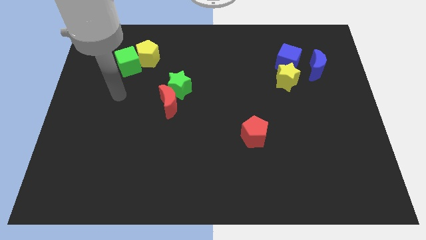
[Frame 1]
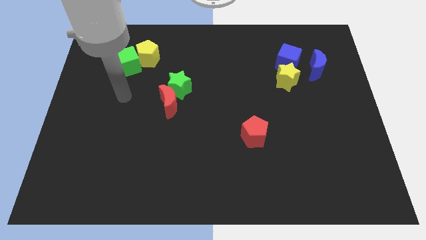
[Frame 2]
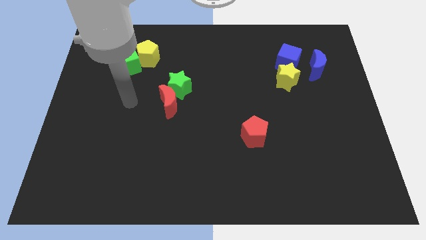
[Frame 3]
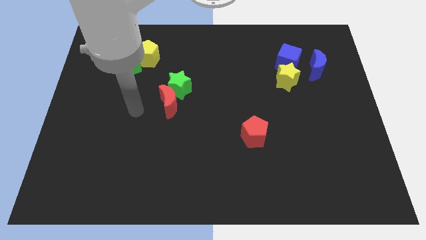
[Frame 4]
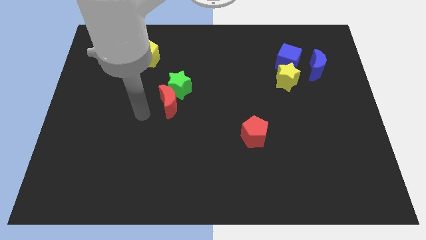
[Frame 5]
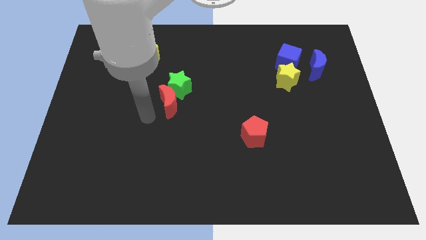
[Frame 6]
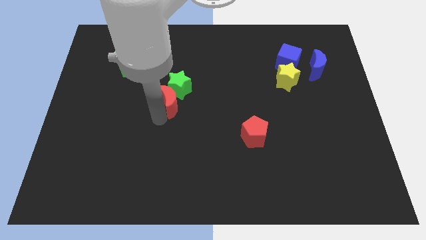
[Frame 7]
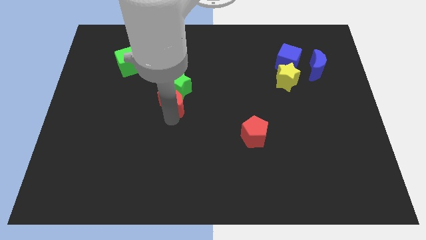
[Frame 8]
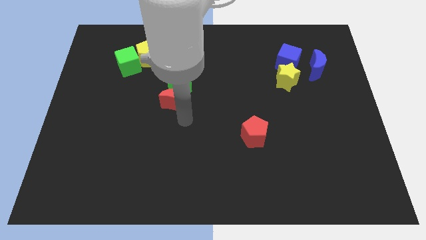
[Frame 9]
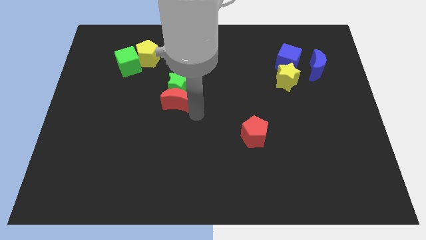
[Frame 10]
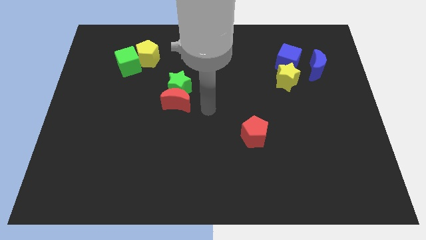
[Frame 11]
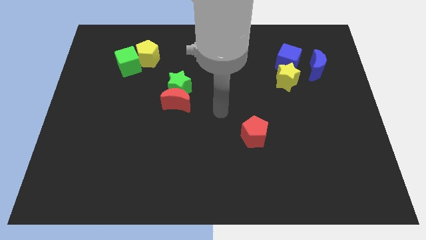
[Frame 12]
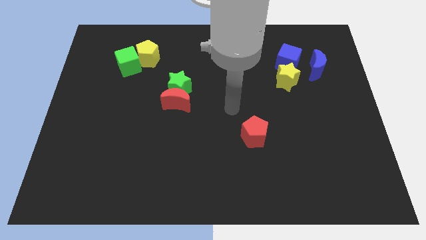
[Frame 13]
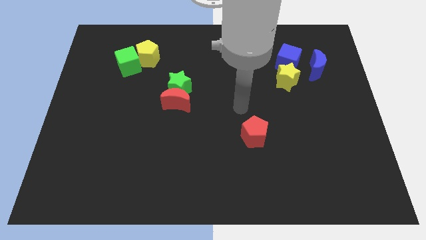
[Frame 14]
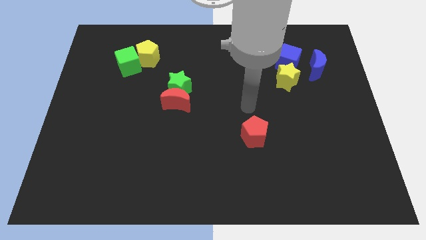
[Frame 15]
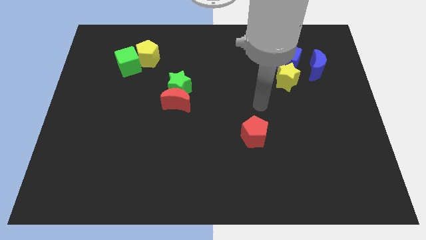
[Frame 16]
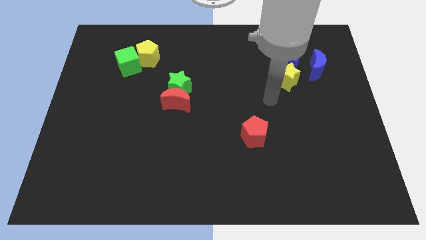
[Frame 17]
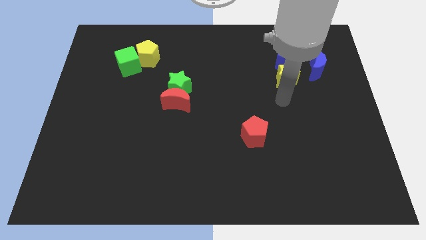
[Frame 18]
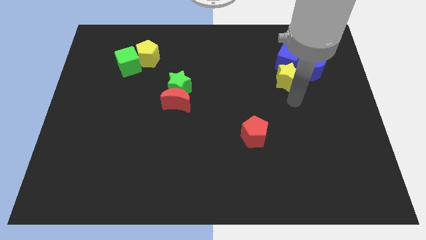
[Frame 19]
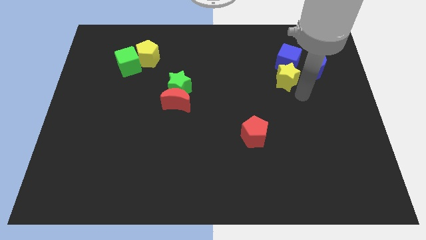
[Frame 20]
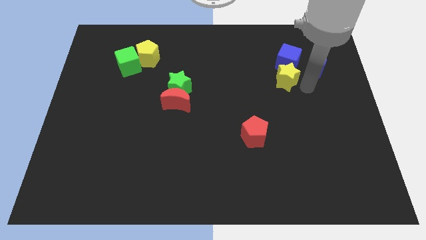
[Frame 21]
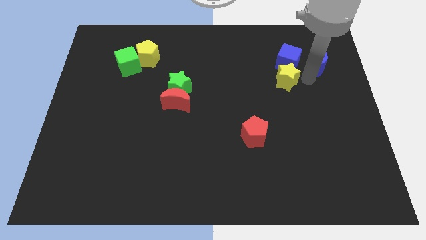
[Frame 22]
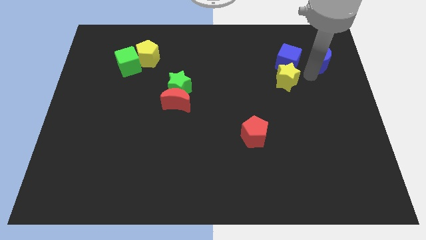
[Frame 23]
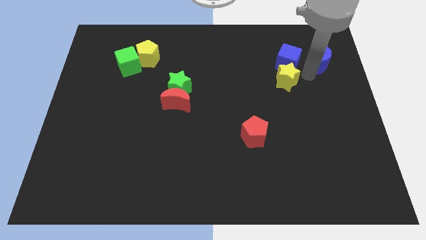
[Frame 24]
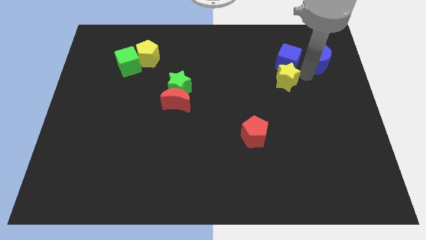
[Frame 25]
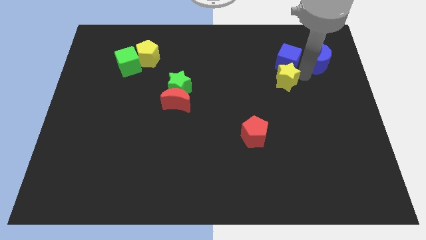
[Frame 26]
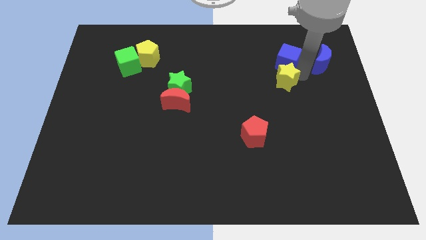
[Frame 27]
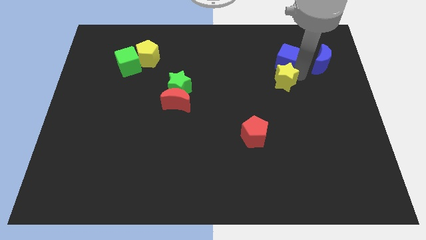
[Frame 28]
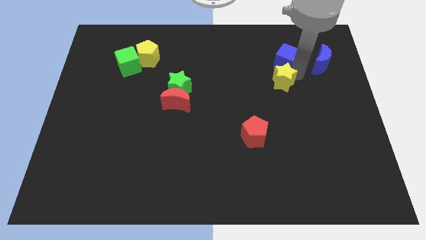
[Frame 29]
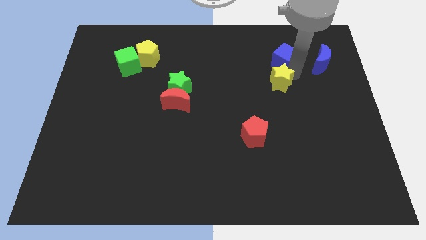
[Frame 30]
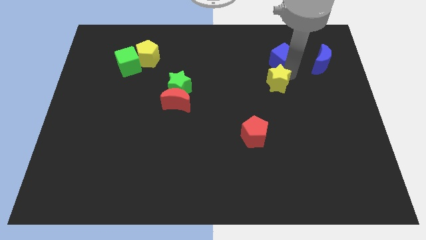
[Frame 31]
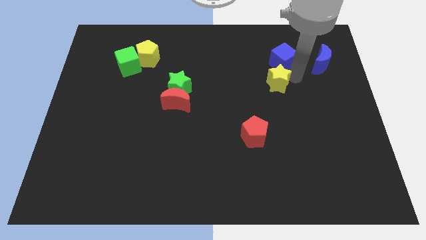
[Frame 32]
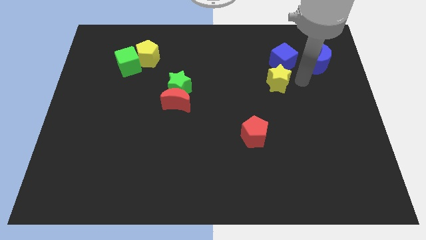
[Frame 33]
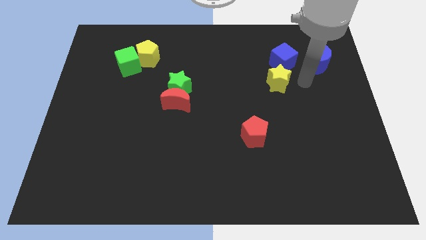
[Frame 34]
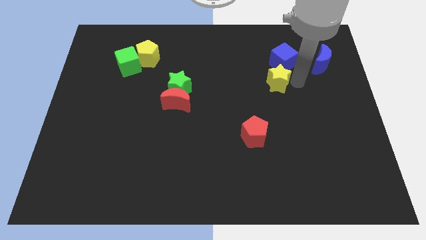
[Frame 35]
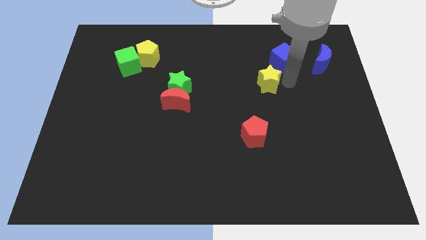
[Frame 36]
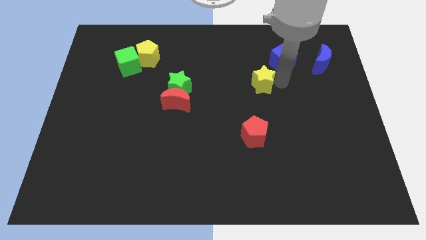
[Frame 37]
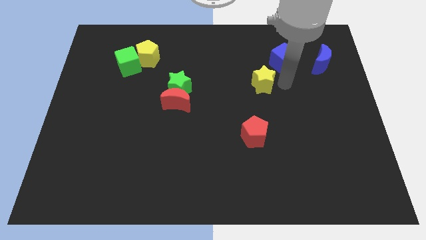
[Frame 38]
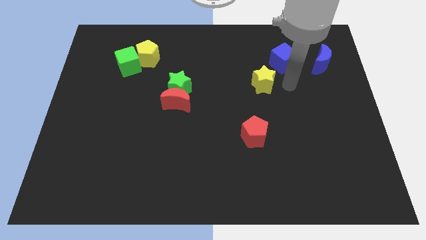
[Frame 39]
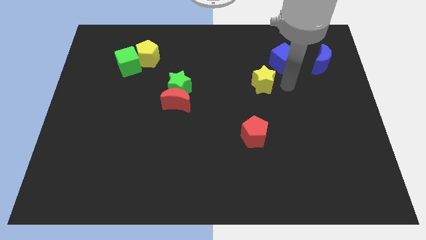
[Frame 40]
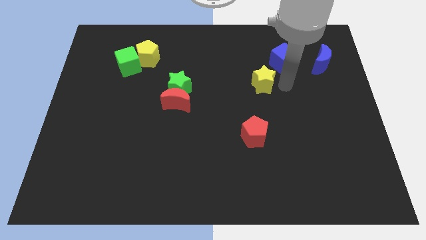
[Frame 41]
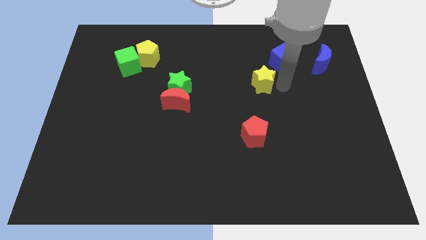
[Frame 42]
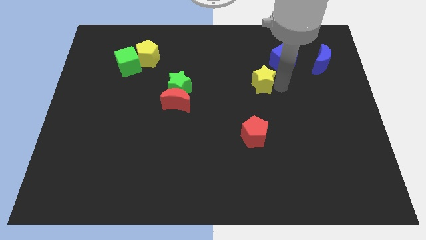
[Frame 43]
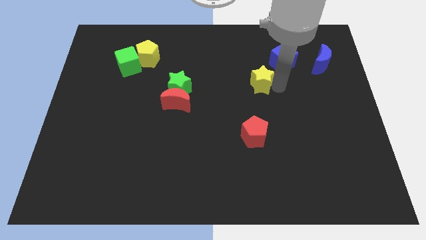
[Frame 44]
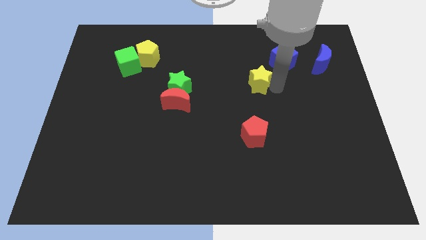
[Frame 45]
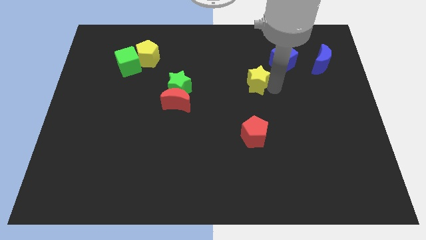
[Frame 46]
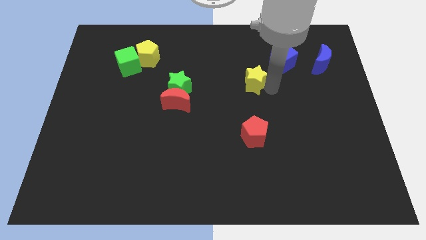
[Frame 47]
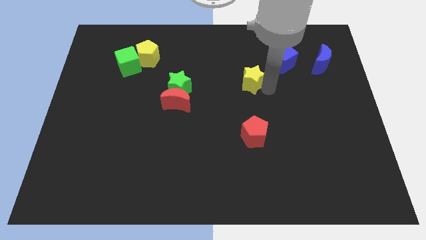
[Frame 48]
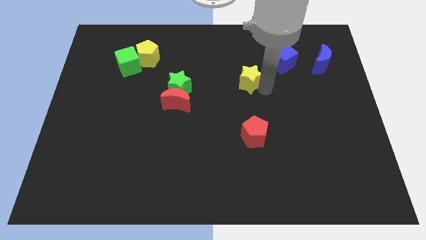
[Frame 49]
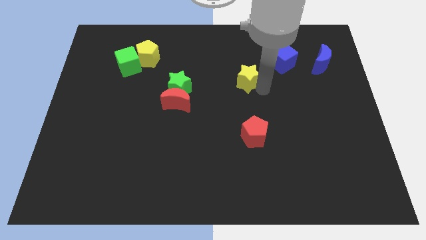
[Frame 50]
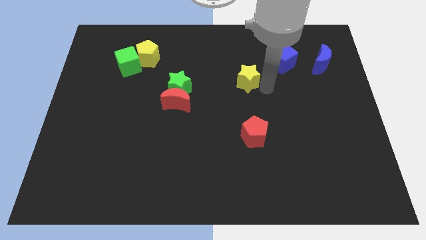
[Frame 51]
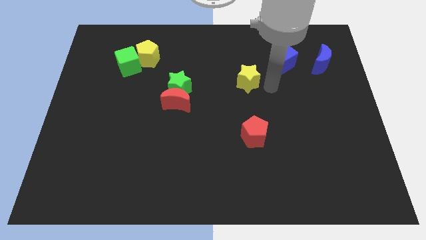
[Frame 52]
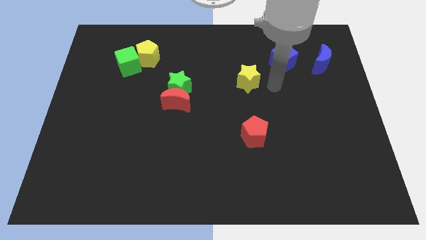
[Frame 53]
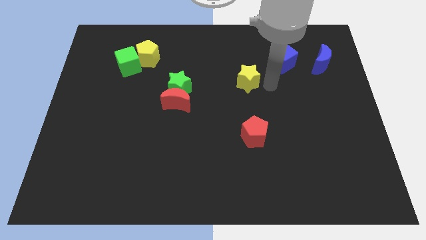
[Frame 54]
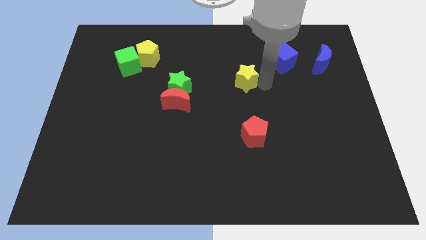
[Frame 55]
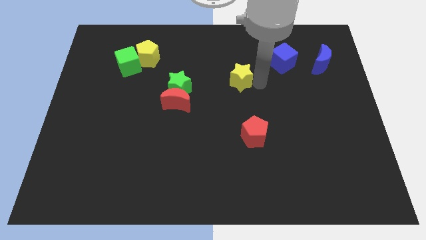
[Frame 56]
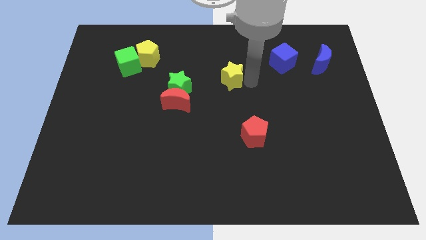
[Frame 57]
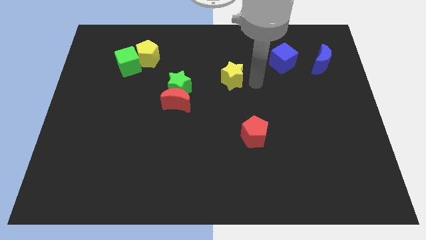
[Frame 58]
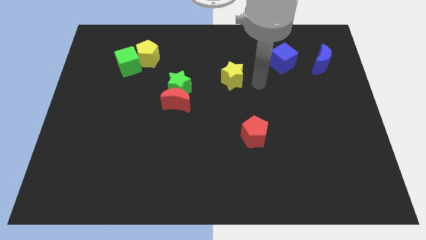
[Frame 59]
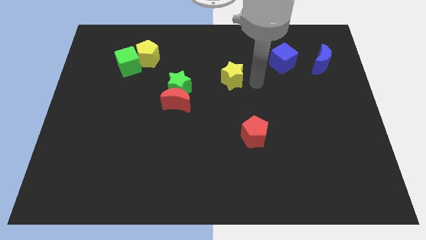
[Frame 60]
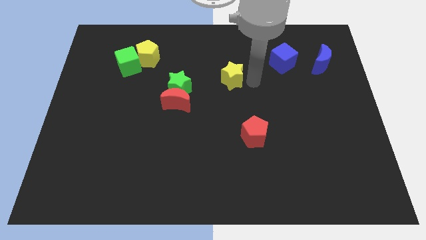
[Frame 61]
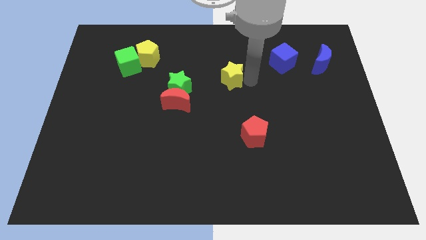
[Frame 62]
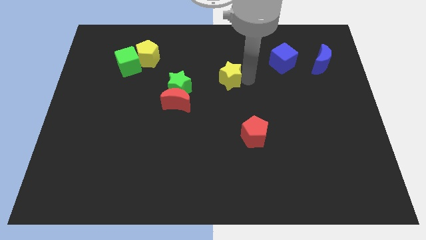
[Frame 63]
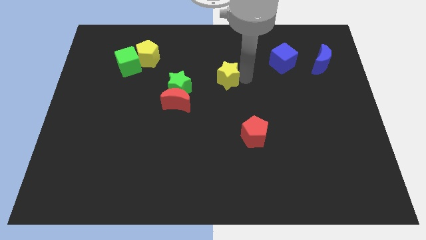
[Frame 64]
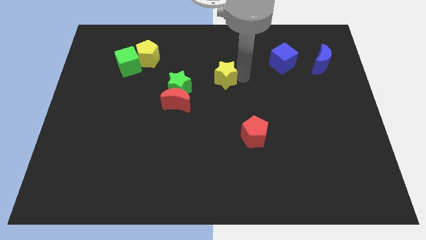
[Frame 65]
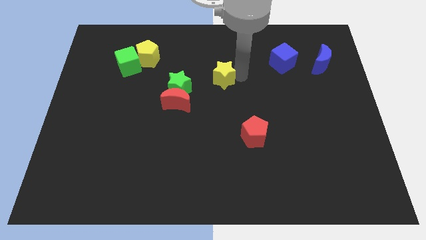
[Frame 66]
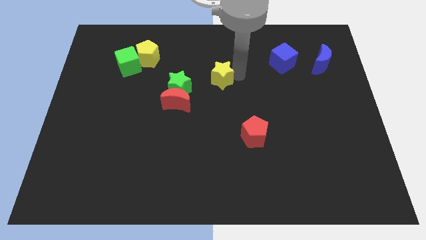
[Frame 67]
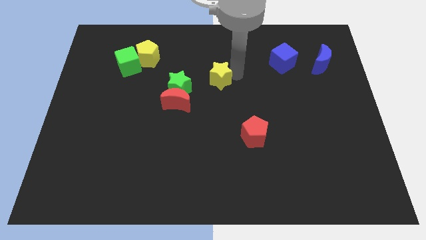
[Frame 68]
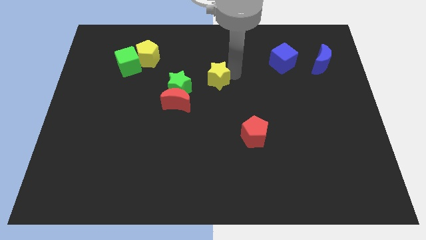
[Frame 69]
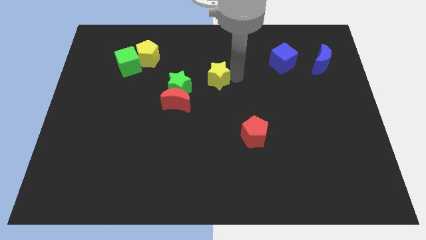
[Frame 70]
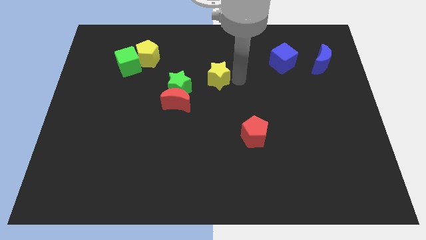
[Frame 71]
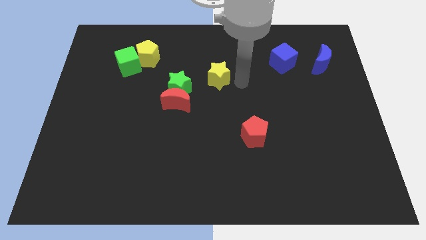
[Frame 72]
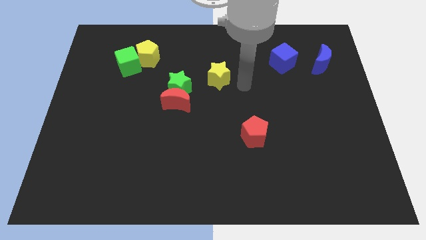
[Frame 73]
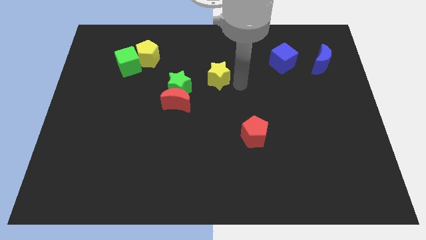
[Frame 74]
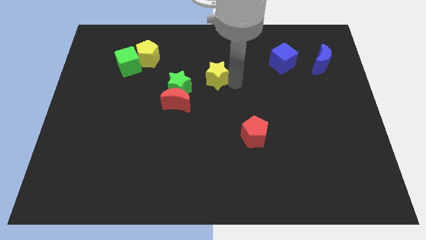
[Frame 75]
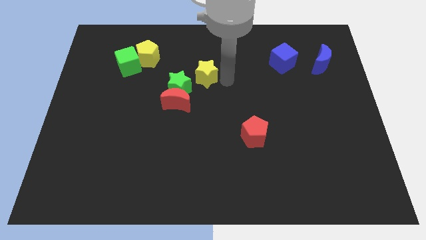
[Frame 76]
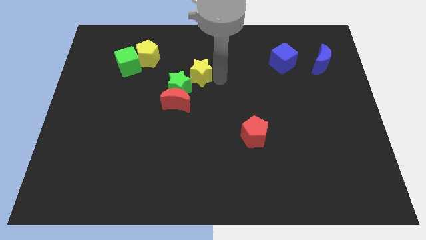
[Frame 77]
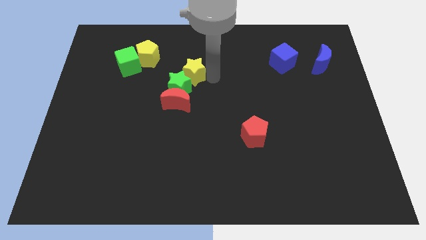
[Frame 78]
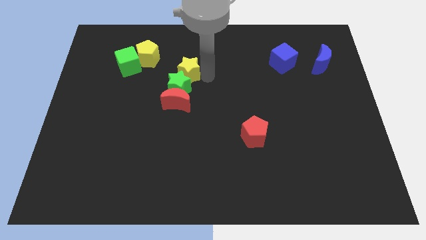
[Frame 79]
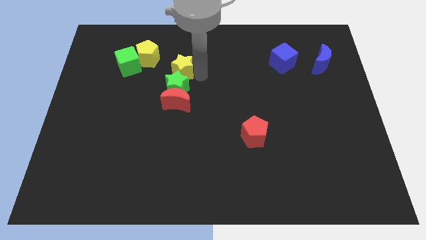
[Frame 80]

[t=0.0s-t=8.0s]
push the yellow star to the bottom right side of the yellow pentagon
